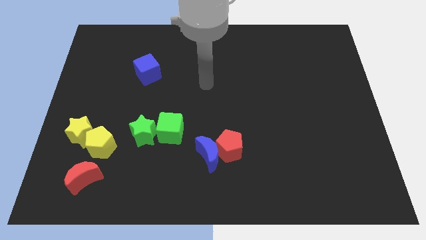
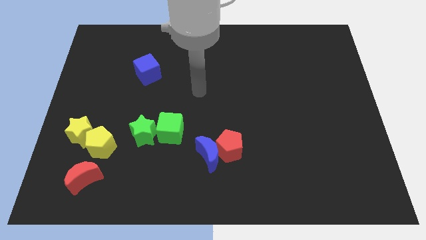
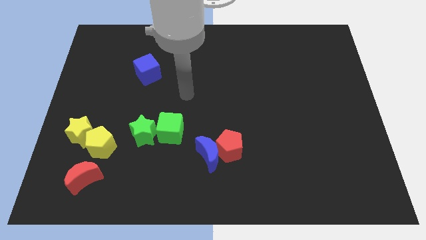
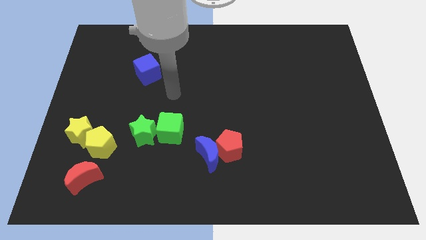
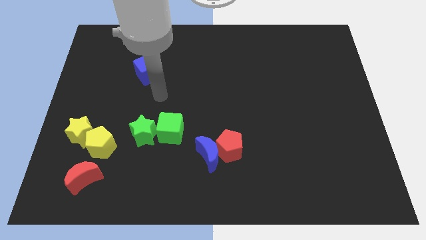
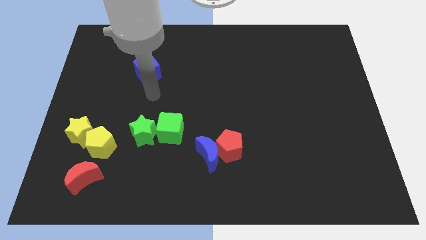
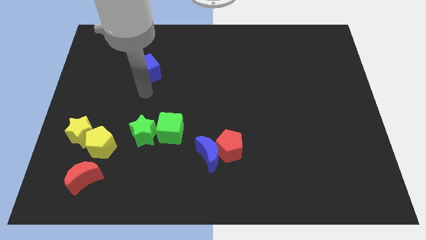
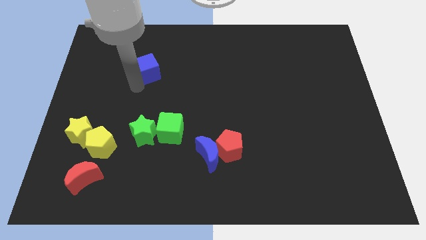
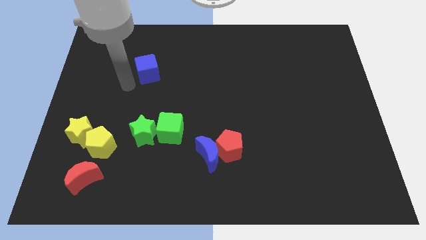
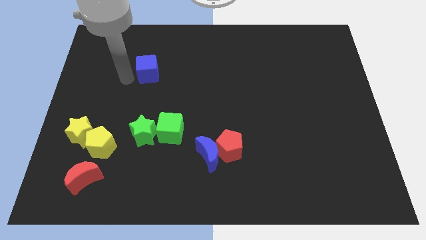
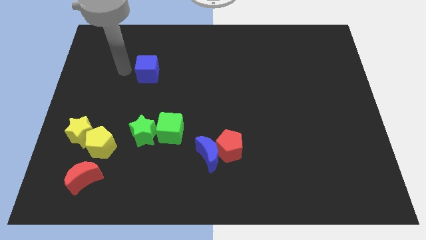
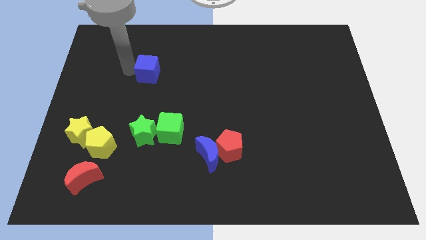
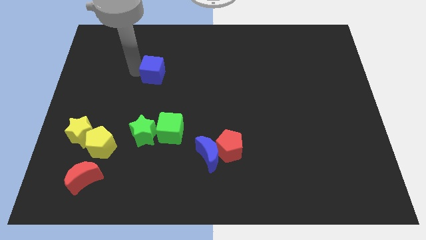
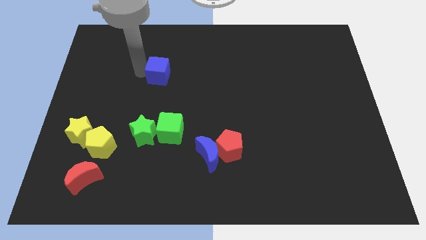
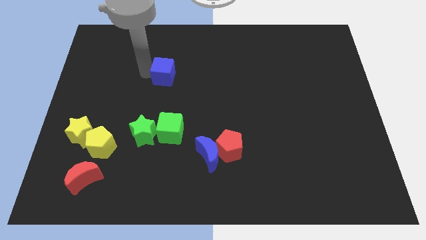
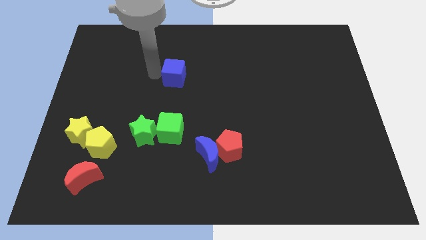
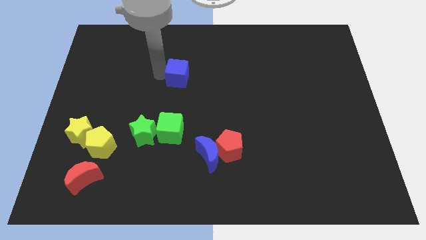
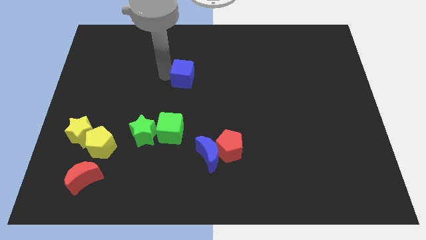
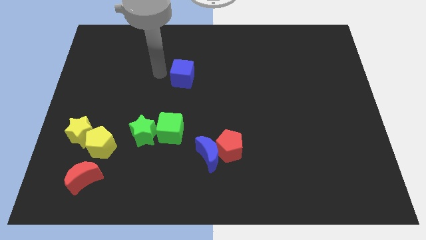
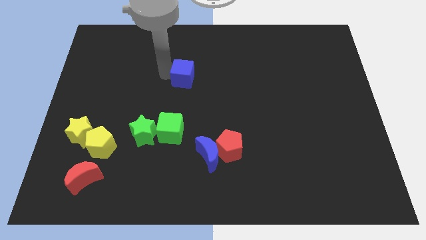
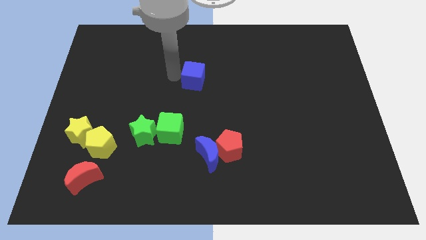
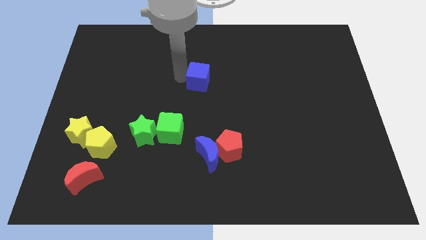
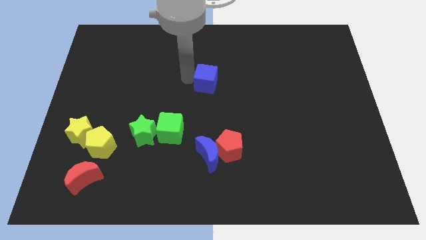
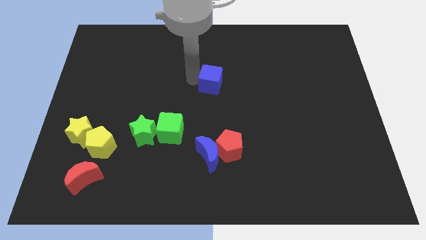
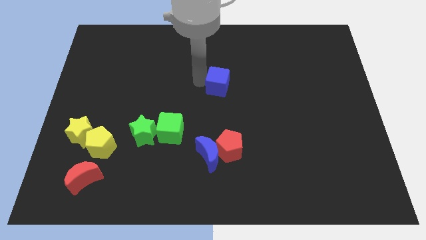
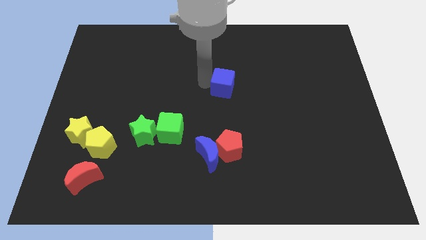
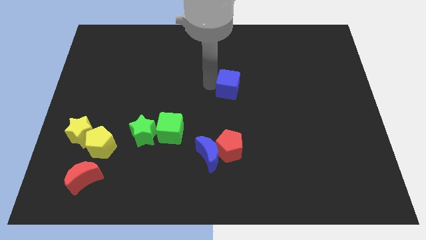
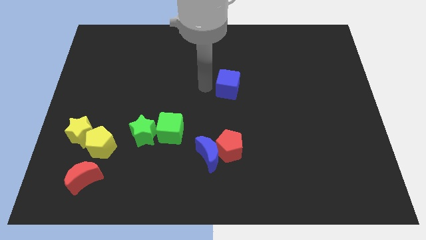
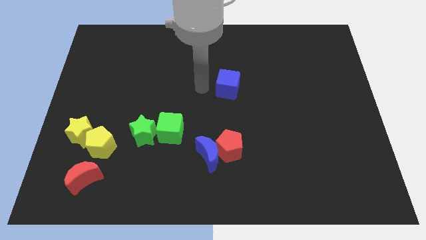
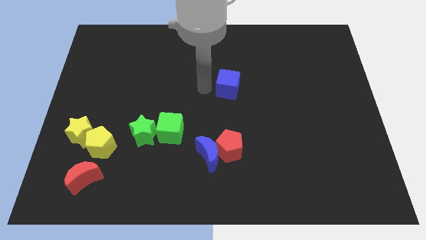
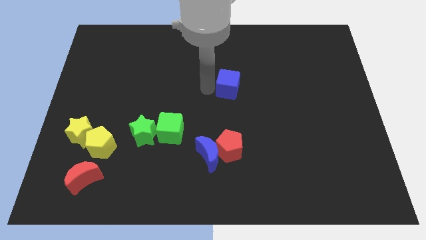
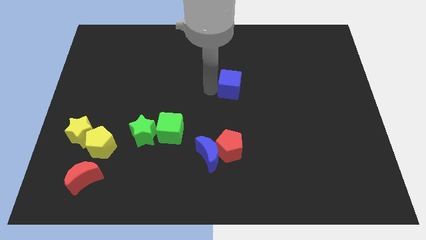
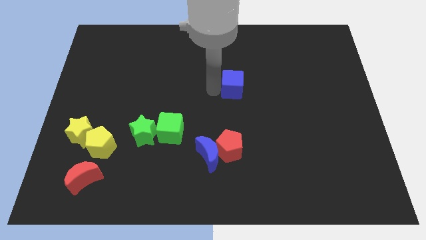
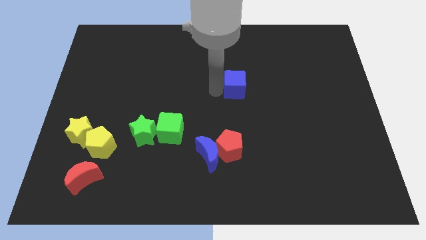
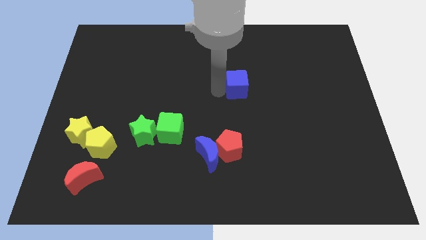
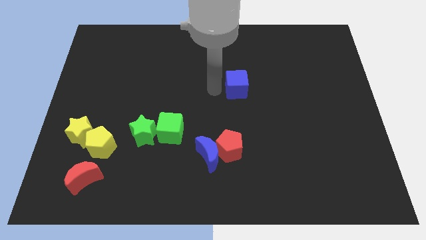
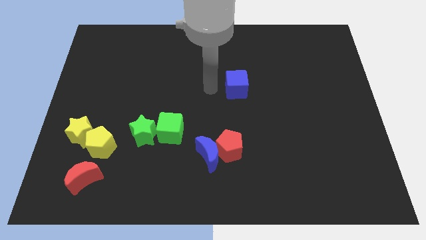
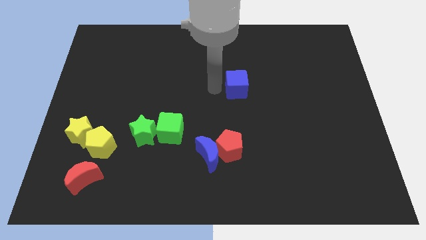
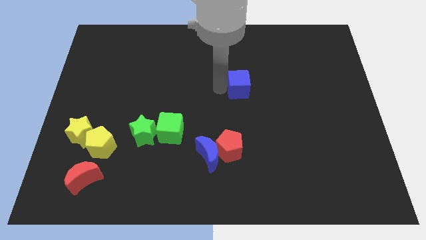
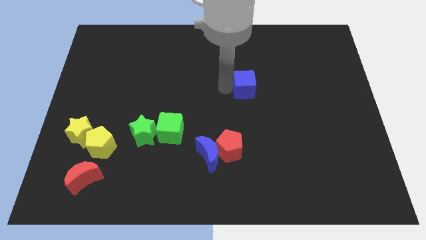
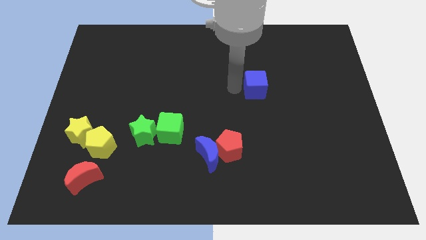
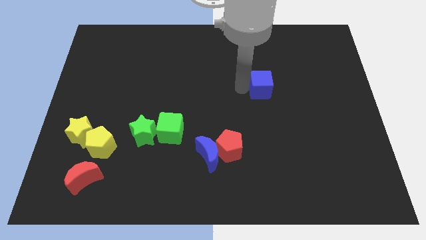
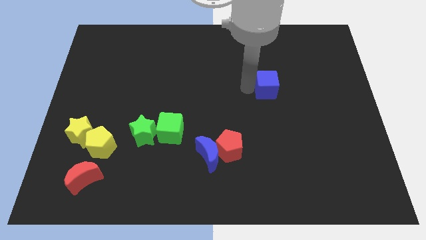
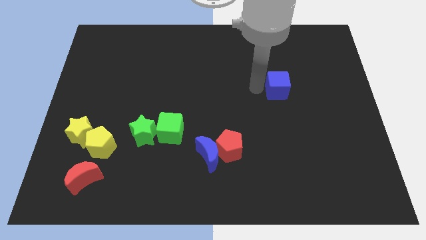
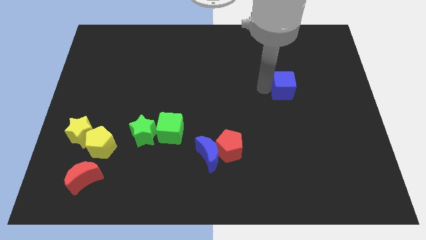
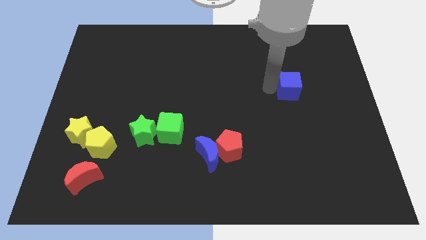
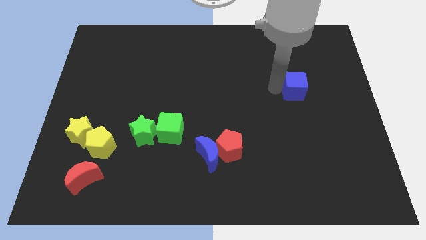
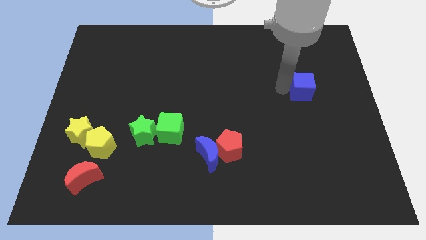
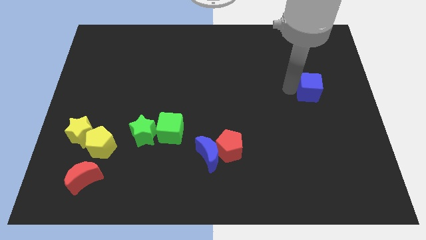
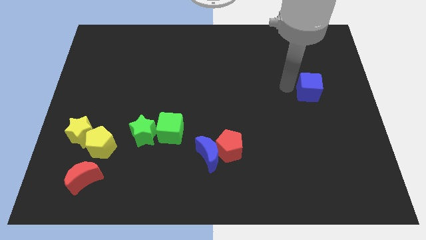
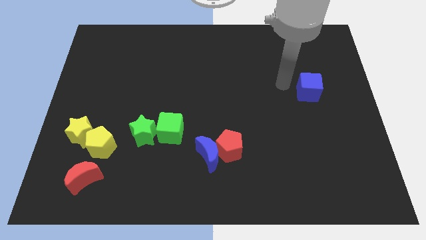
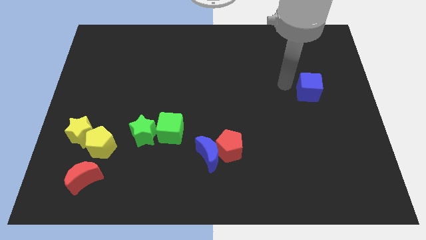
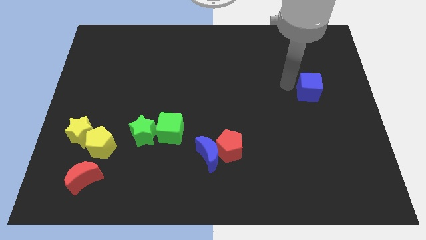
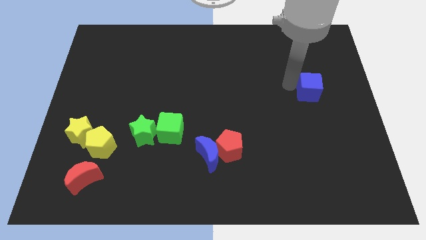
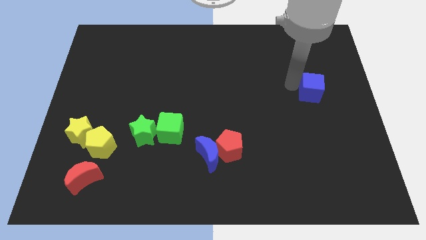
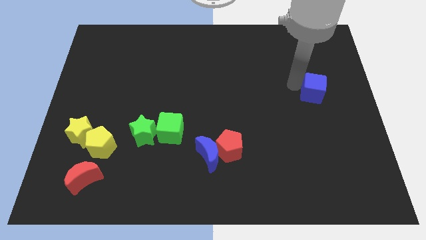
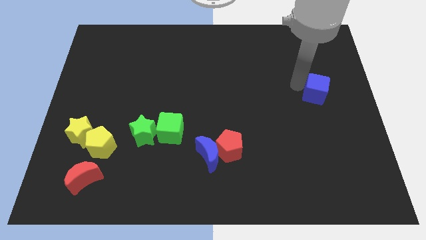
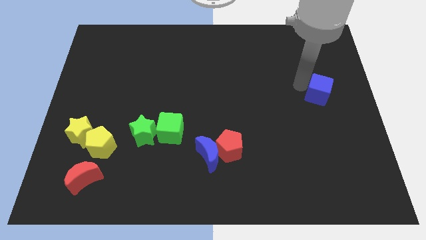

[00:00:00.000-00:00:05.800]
move the blue cube to the right side of the board

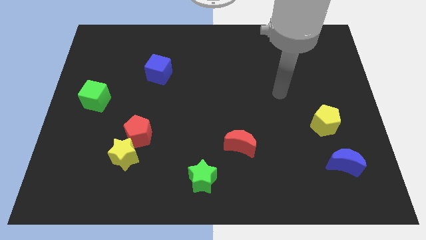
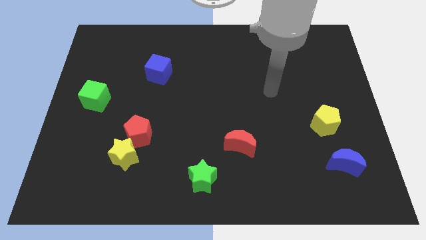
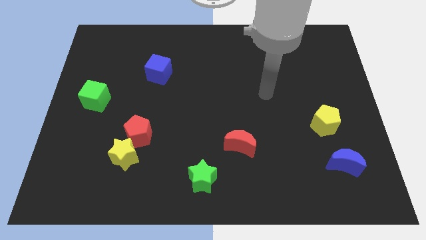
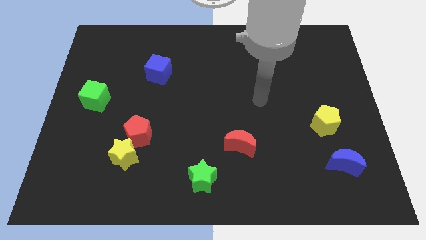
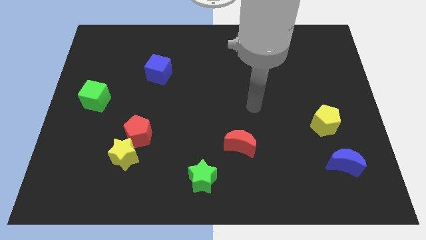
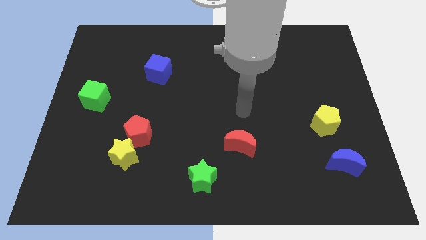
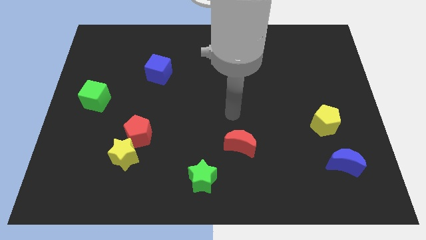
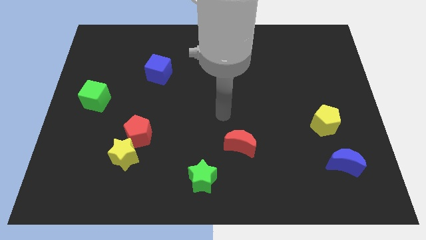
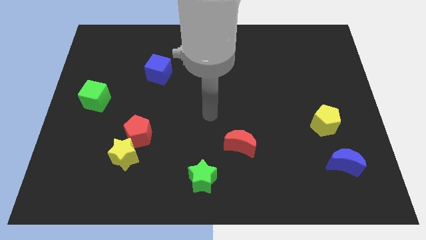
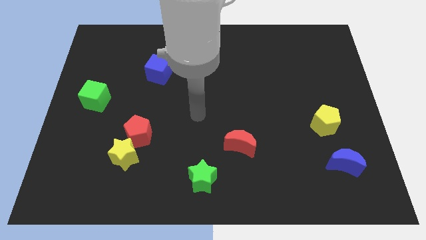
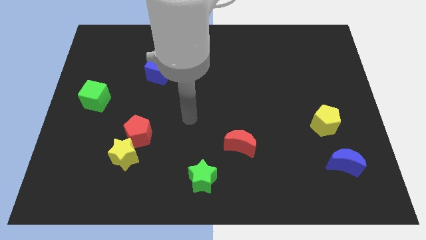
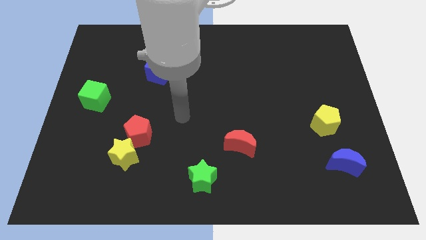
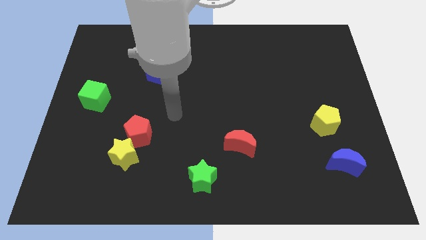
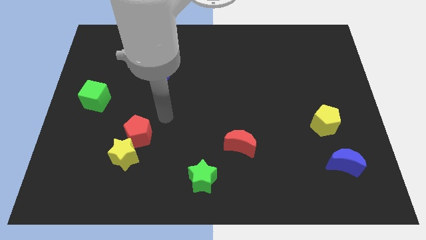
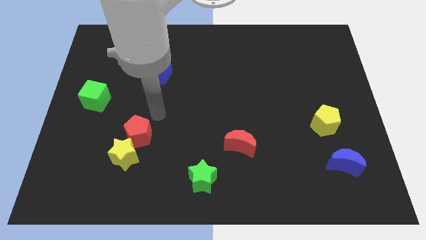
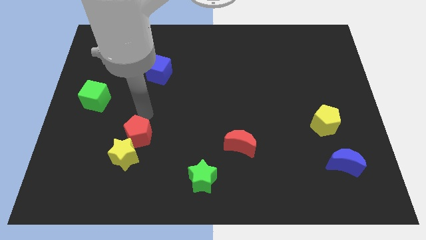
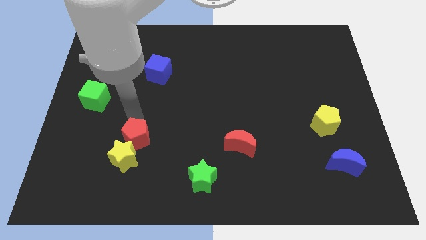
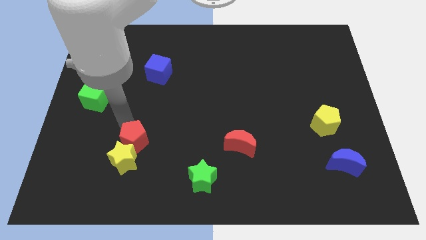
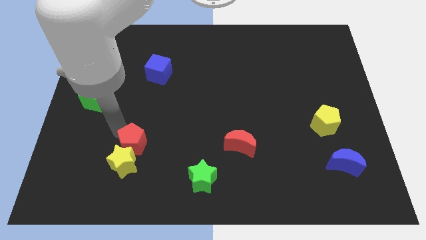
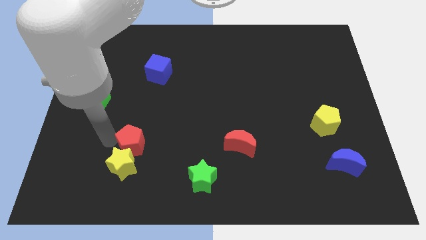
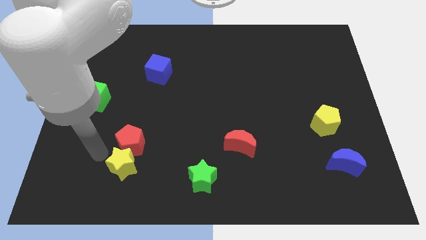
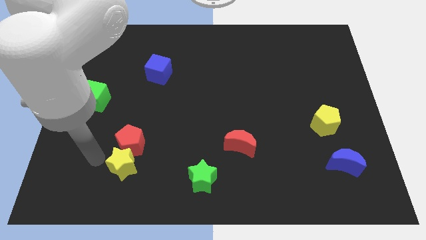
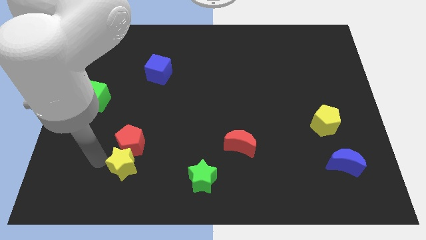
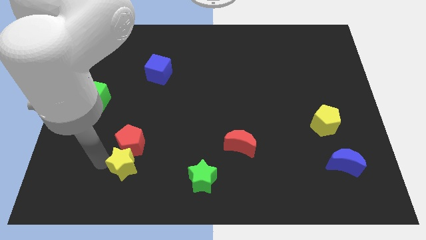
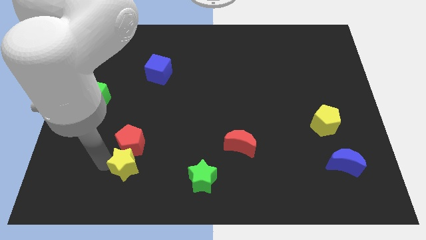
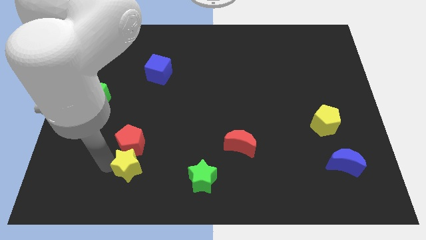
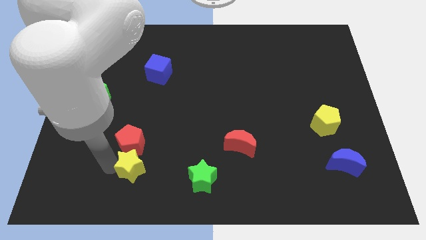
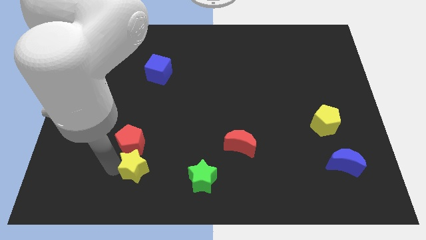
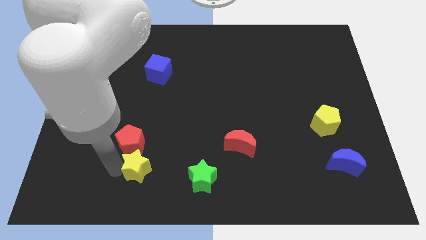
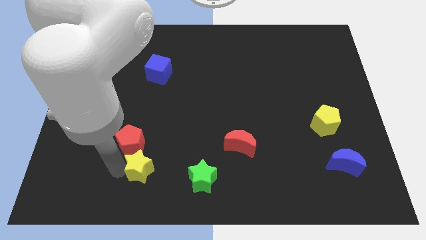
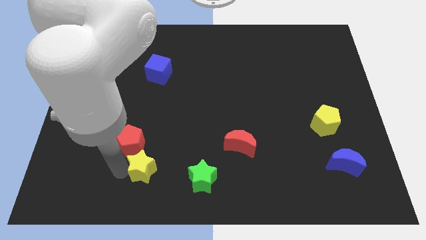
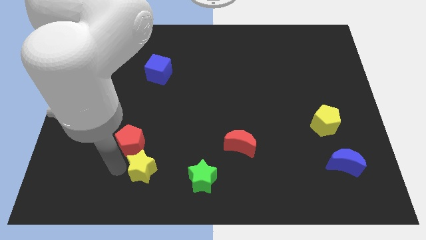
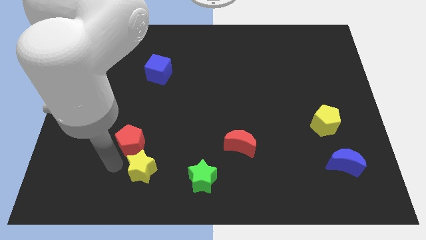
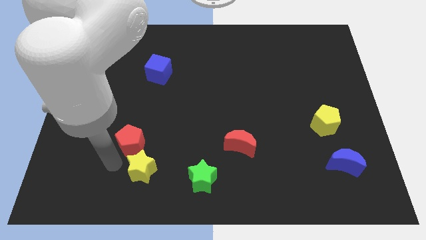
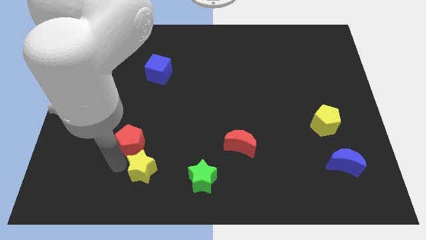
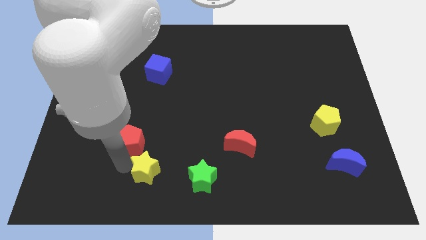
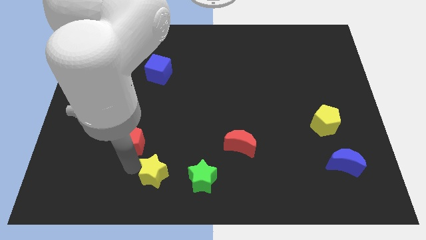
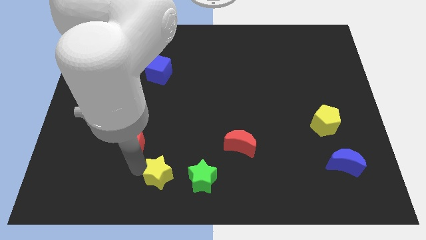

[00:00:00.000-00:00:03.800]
put the yellow star to the bottom side
